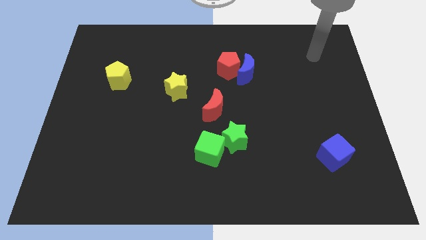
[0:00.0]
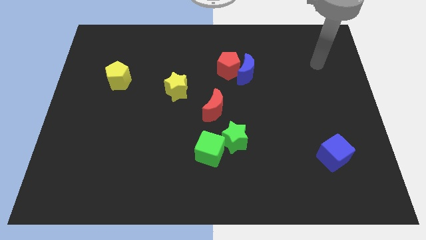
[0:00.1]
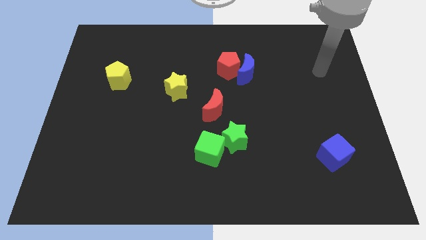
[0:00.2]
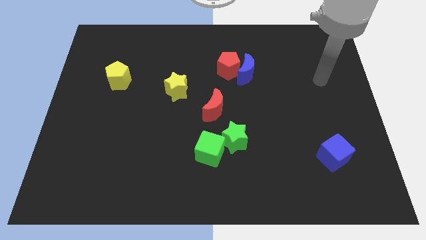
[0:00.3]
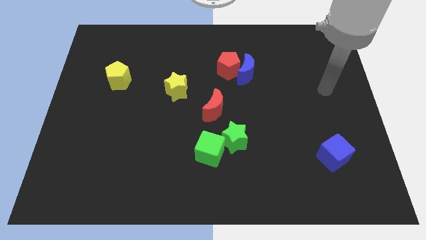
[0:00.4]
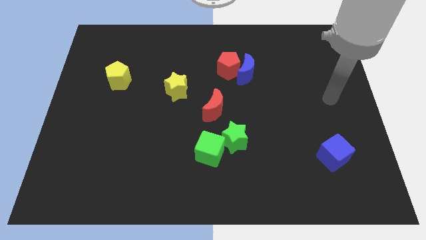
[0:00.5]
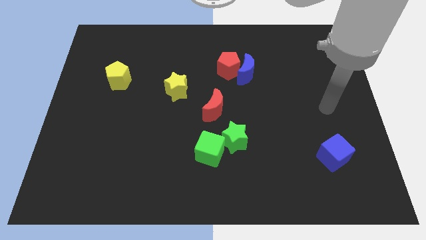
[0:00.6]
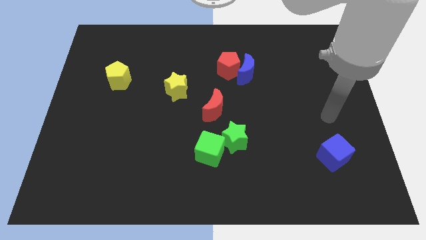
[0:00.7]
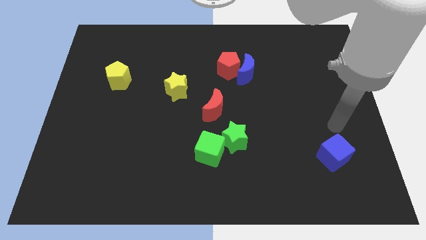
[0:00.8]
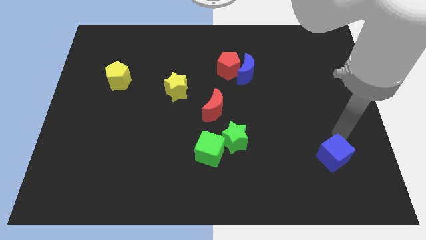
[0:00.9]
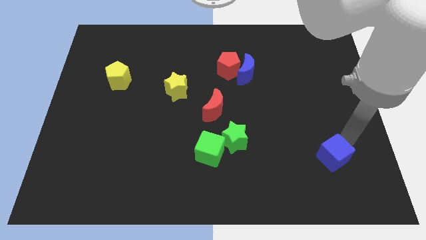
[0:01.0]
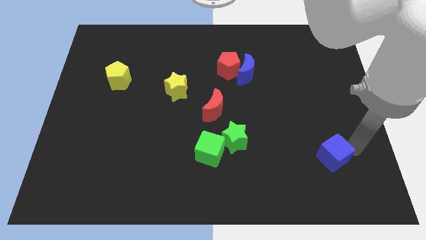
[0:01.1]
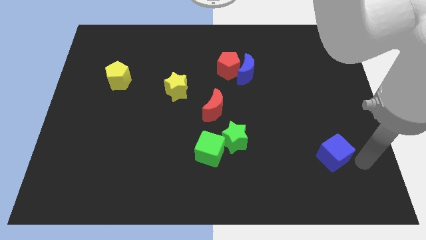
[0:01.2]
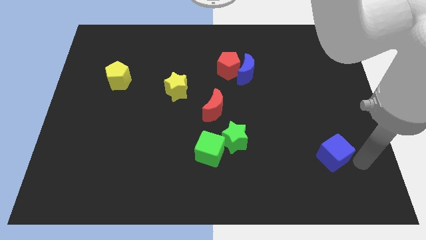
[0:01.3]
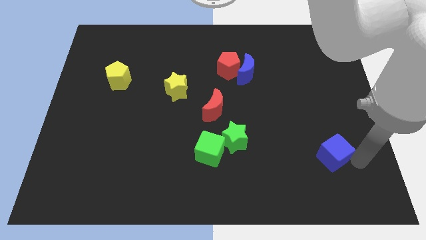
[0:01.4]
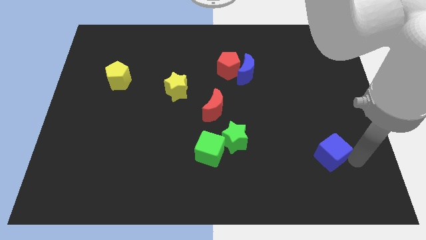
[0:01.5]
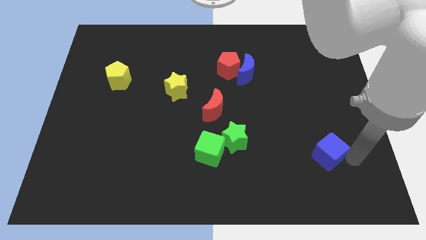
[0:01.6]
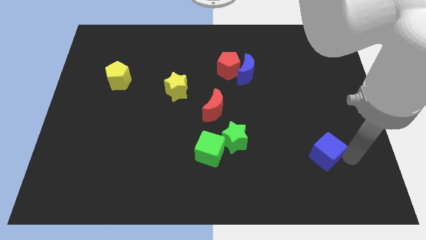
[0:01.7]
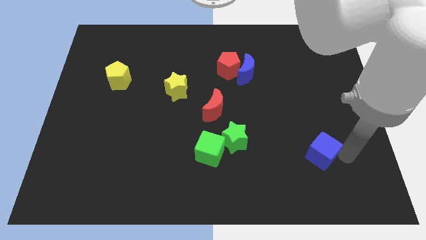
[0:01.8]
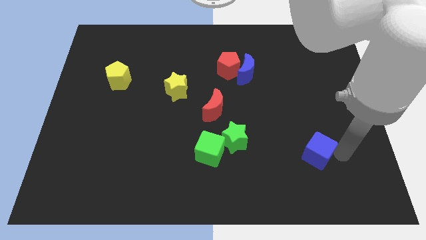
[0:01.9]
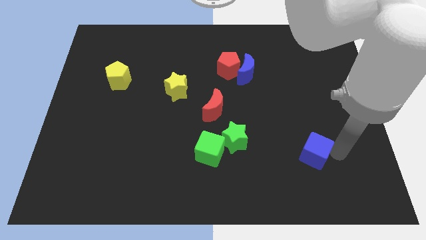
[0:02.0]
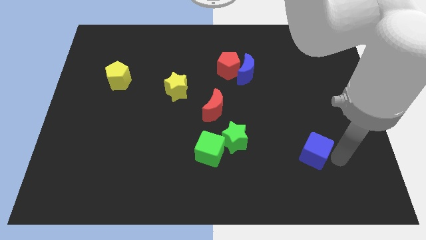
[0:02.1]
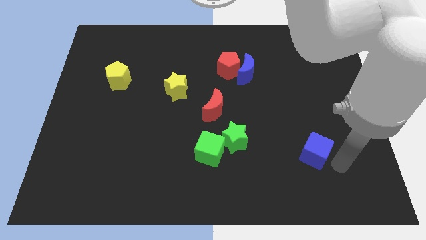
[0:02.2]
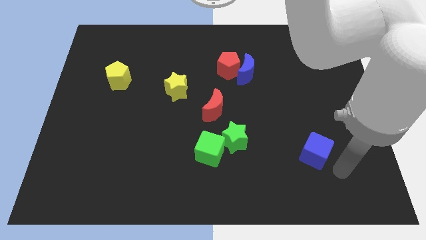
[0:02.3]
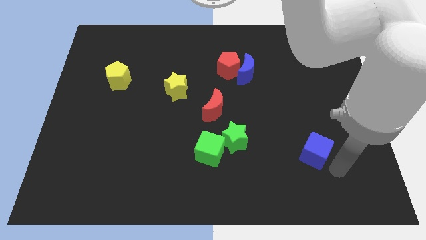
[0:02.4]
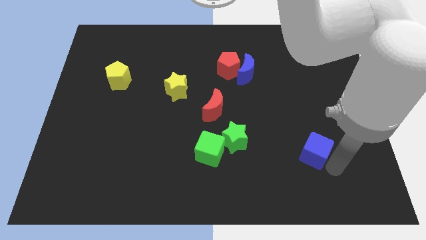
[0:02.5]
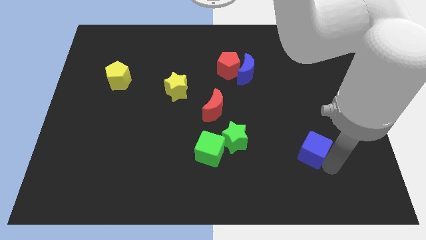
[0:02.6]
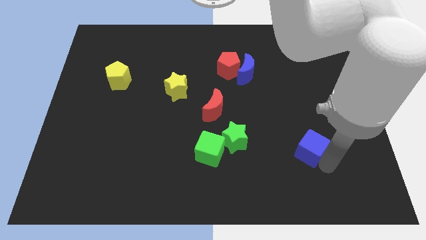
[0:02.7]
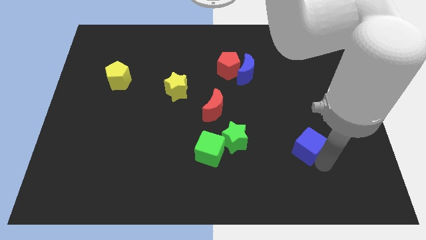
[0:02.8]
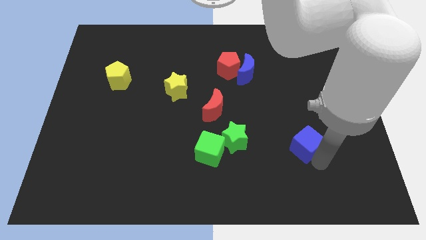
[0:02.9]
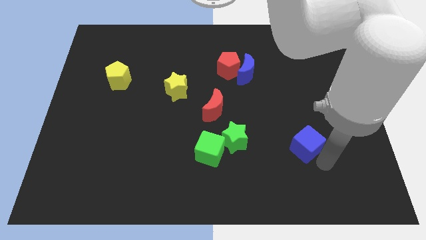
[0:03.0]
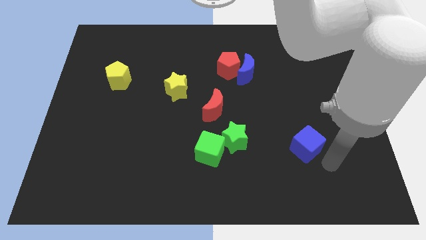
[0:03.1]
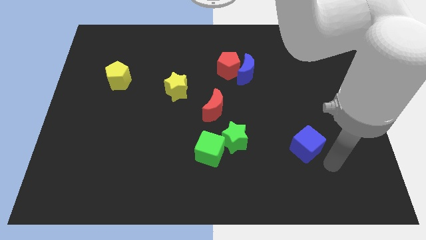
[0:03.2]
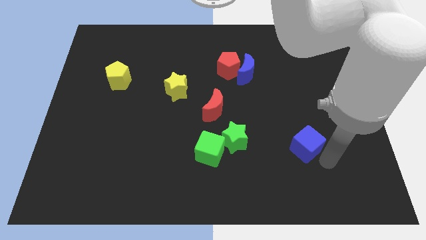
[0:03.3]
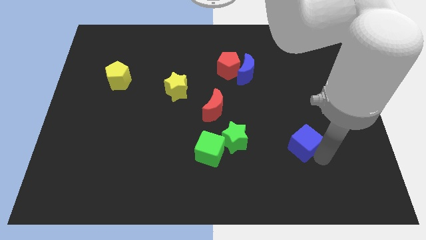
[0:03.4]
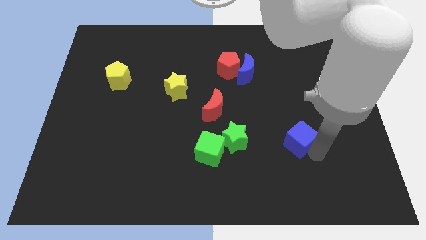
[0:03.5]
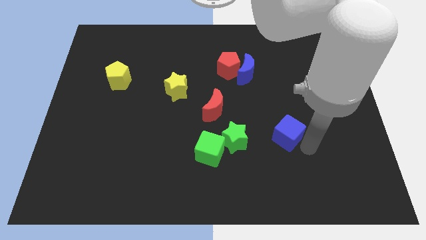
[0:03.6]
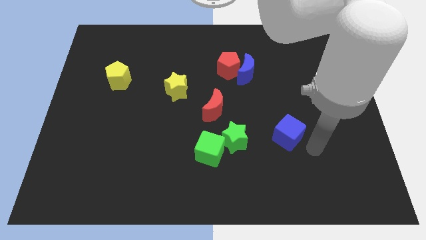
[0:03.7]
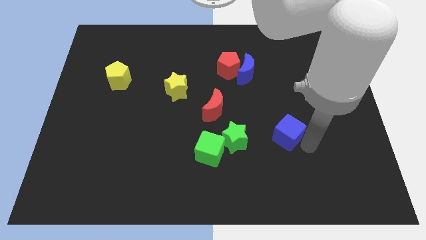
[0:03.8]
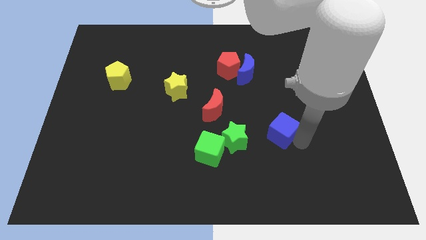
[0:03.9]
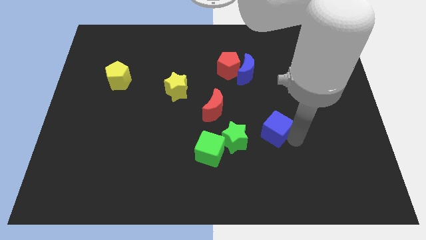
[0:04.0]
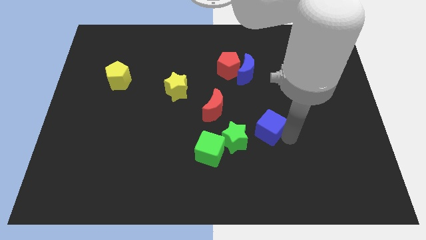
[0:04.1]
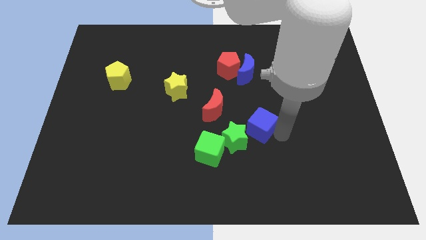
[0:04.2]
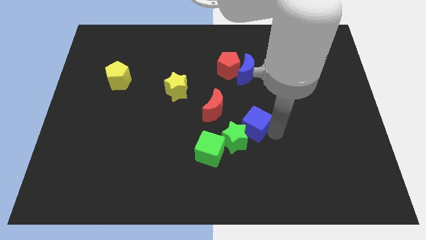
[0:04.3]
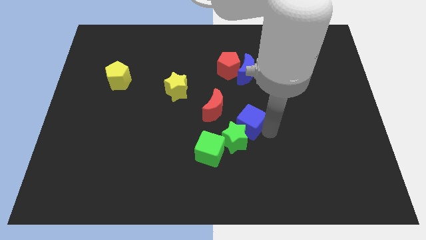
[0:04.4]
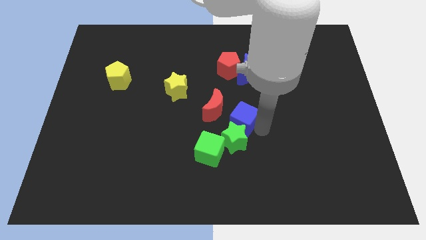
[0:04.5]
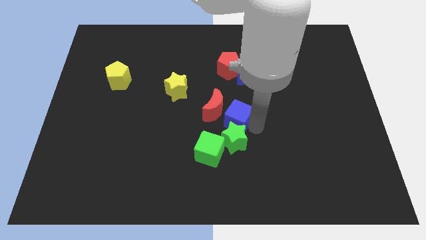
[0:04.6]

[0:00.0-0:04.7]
put the blue cube close to the red moon

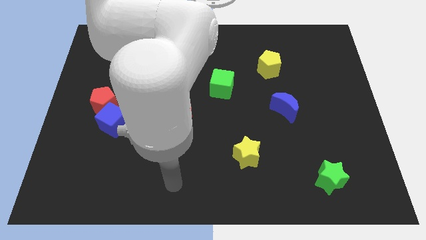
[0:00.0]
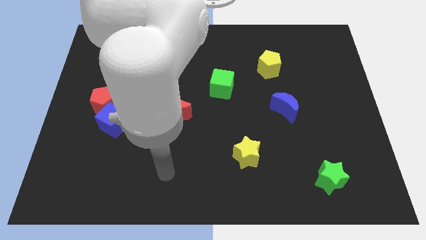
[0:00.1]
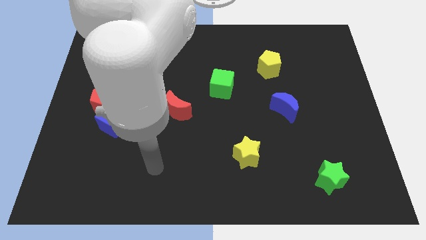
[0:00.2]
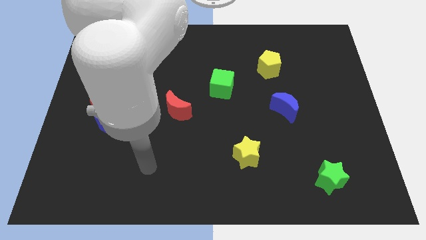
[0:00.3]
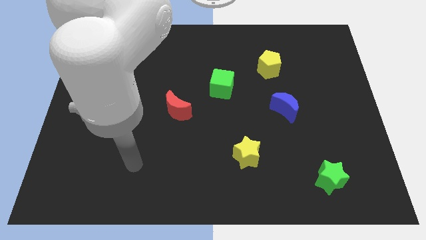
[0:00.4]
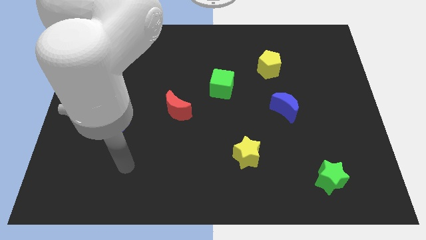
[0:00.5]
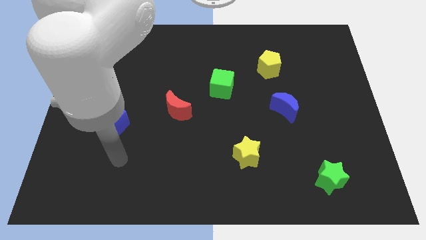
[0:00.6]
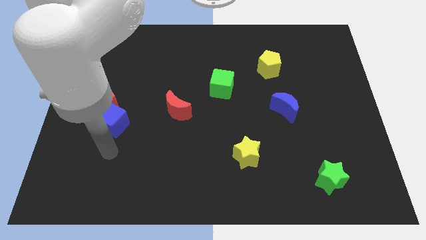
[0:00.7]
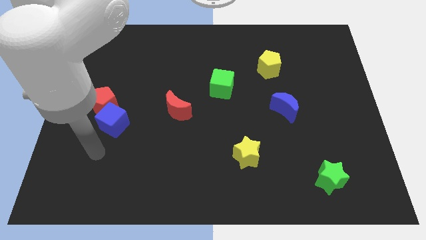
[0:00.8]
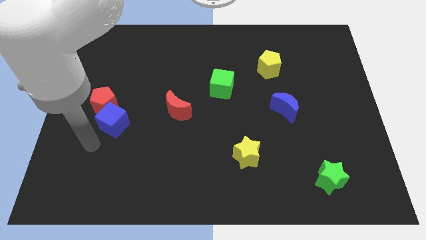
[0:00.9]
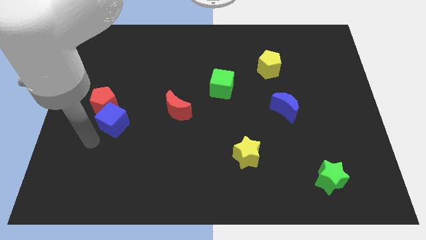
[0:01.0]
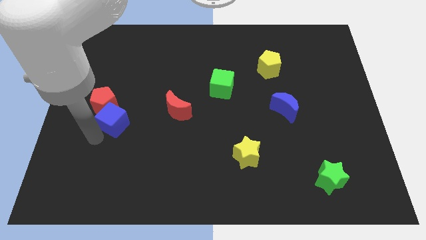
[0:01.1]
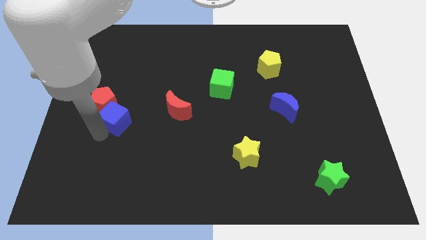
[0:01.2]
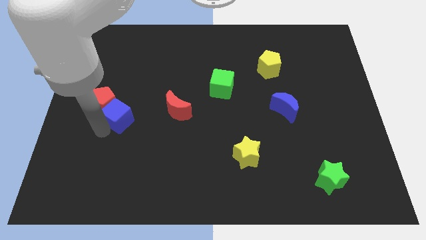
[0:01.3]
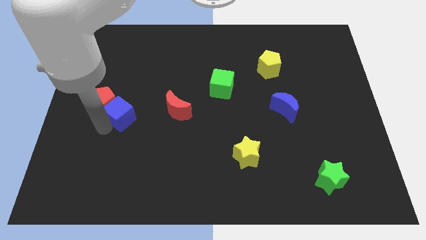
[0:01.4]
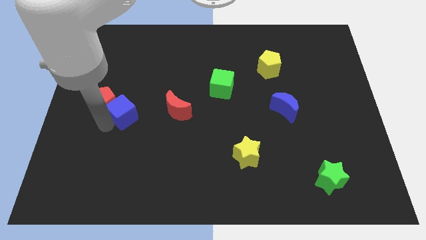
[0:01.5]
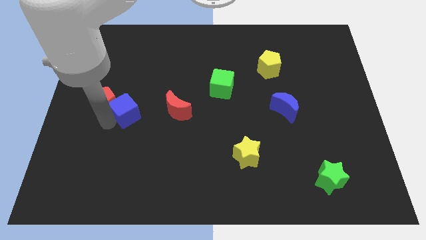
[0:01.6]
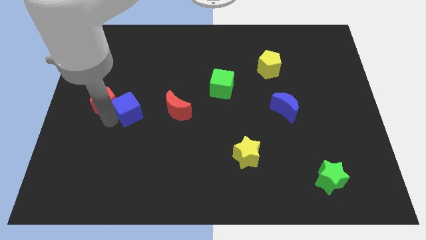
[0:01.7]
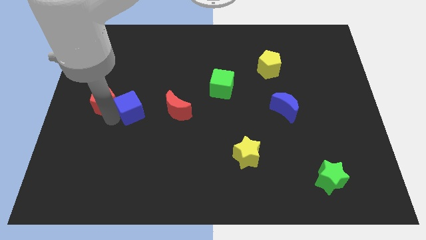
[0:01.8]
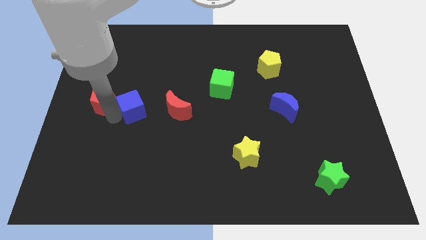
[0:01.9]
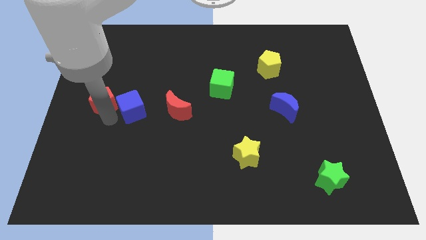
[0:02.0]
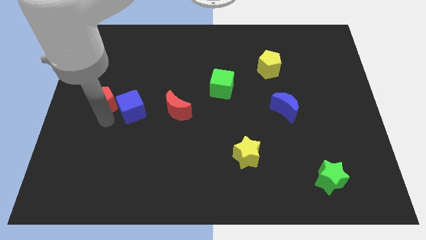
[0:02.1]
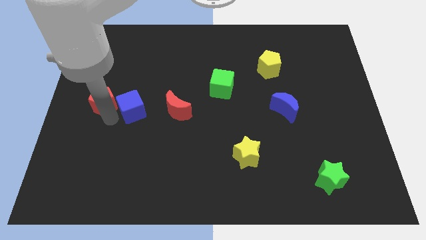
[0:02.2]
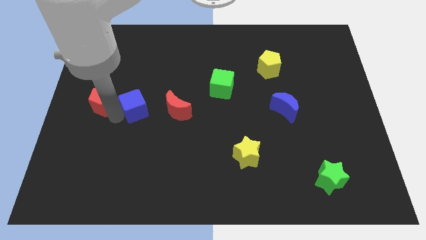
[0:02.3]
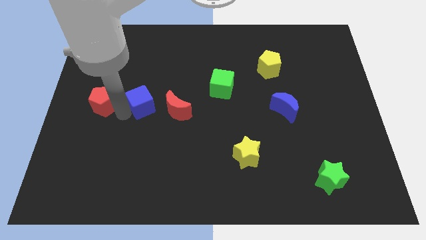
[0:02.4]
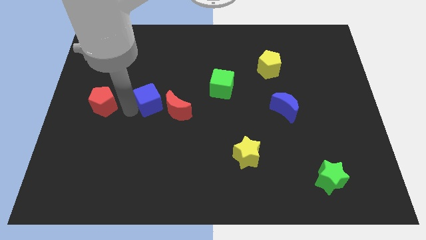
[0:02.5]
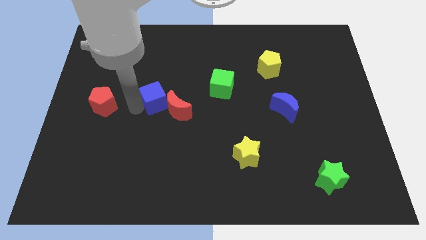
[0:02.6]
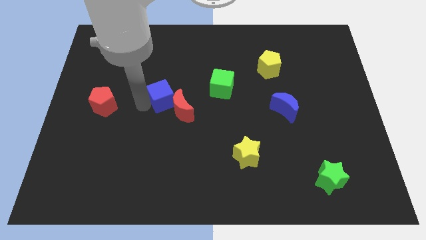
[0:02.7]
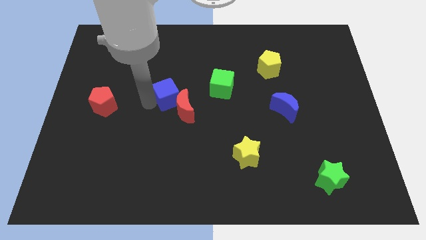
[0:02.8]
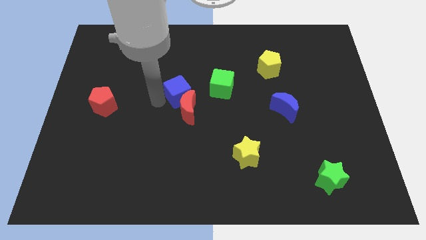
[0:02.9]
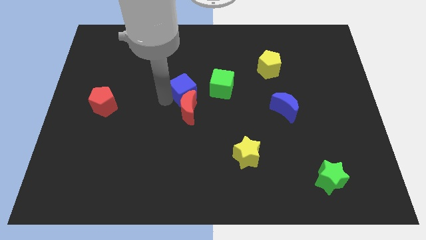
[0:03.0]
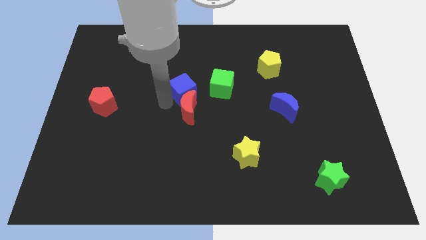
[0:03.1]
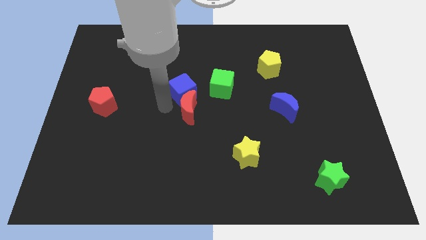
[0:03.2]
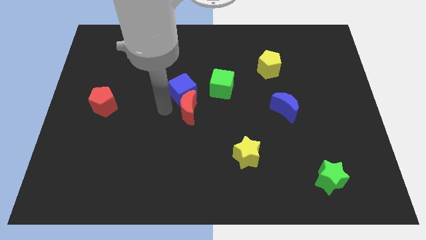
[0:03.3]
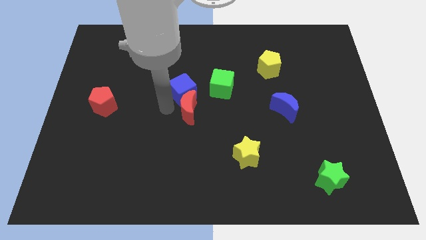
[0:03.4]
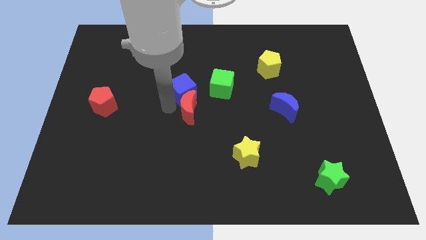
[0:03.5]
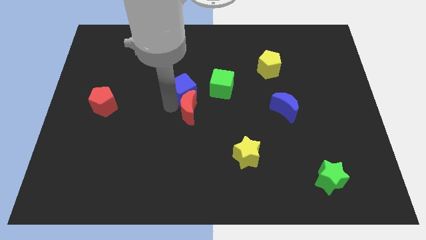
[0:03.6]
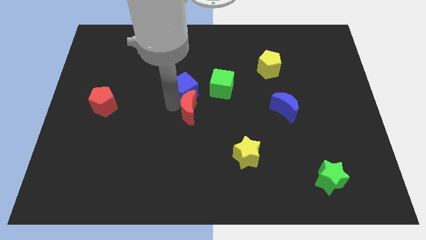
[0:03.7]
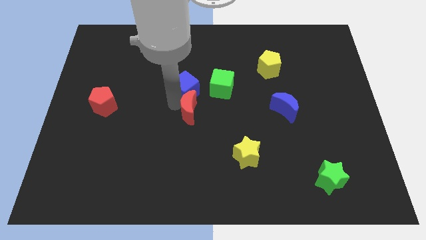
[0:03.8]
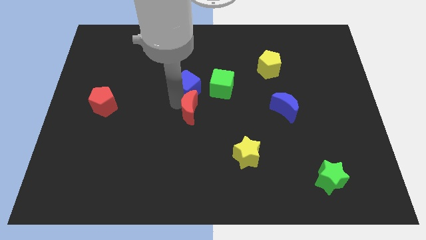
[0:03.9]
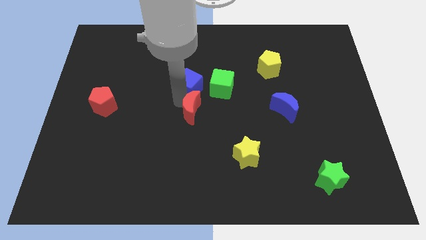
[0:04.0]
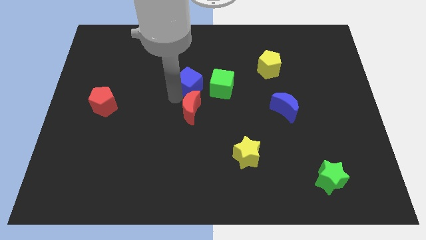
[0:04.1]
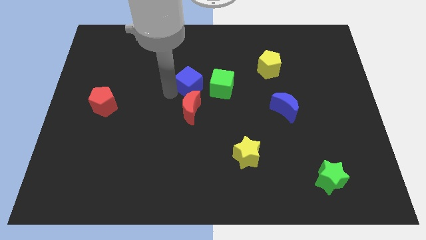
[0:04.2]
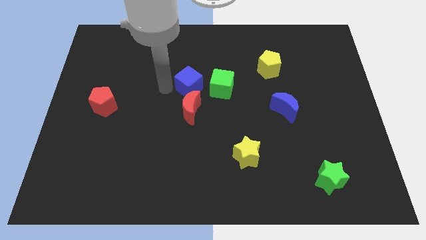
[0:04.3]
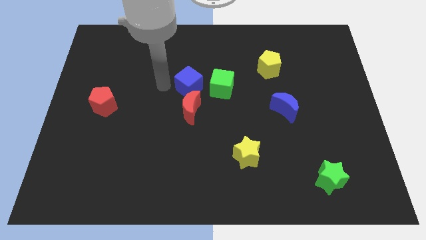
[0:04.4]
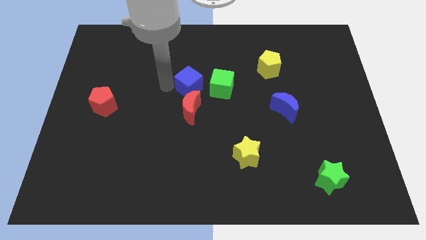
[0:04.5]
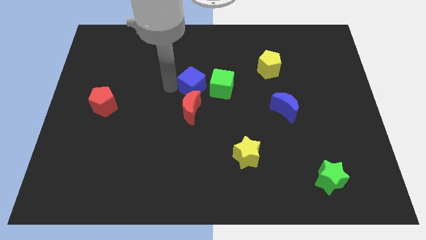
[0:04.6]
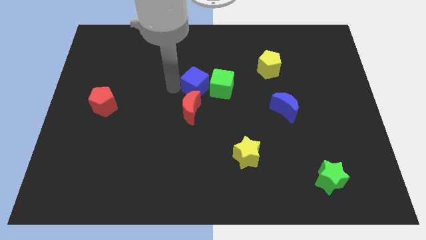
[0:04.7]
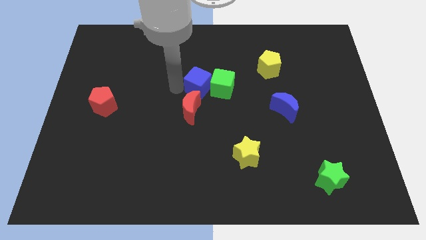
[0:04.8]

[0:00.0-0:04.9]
put the blue cube to the green cube
